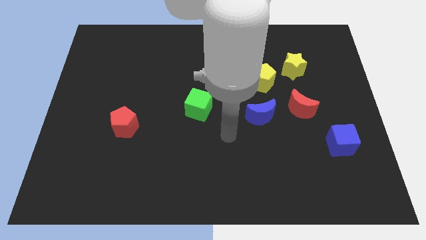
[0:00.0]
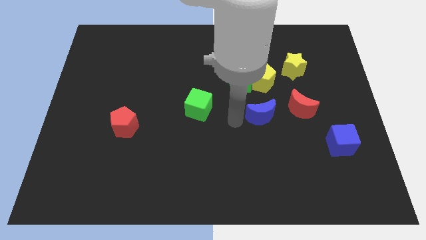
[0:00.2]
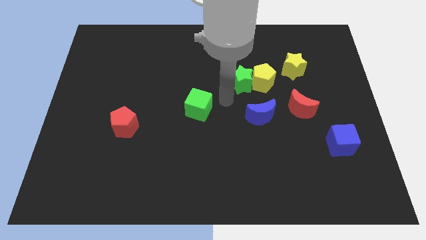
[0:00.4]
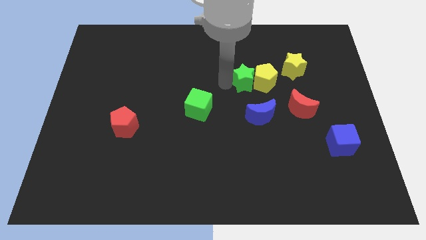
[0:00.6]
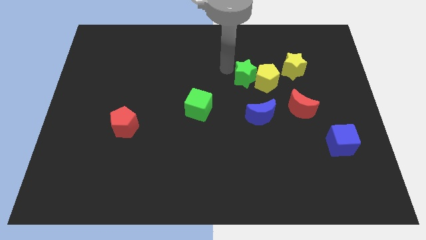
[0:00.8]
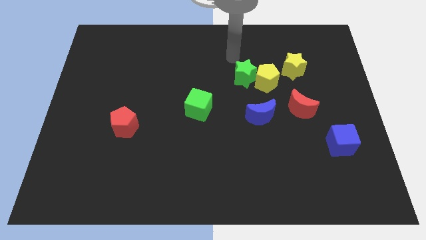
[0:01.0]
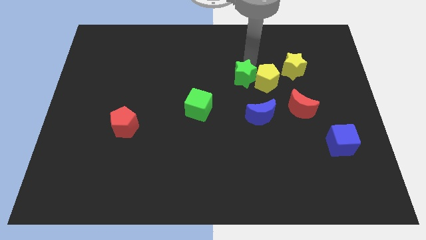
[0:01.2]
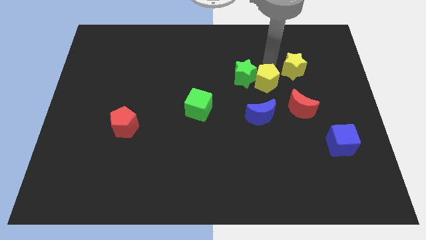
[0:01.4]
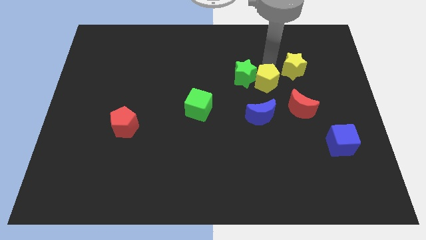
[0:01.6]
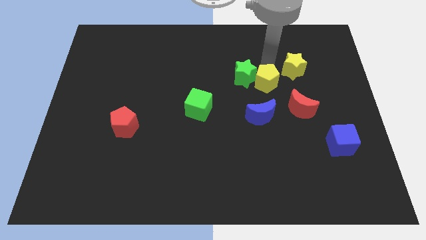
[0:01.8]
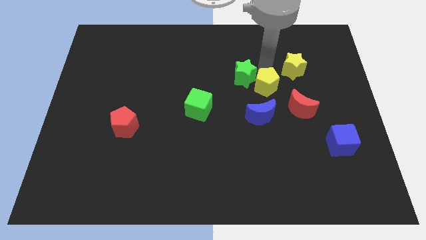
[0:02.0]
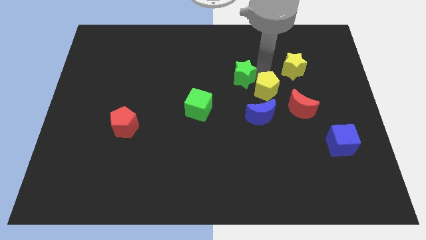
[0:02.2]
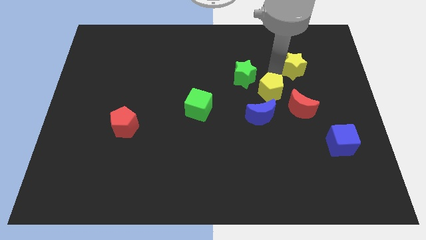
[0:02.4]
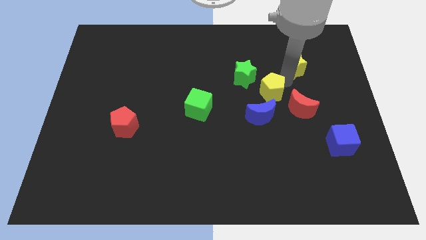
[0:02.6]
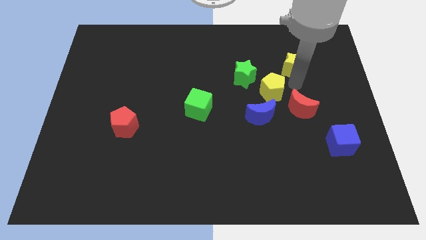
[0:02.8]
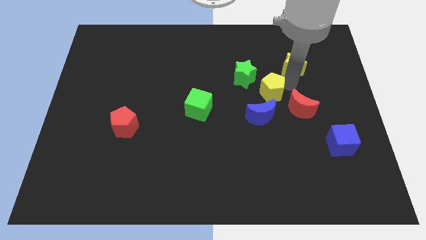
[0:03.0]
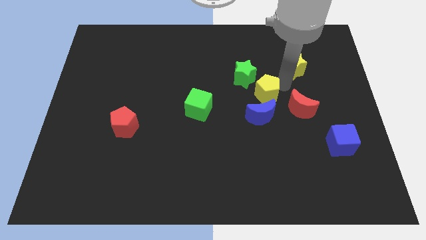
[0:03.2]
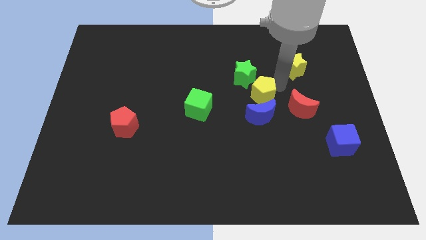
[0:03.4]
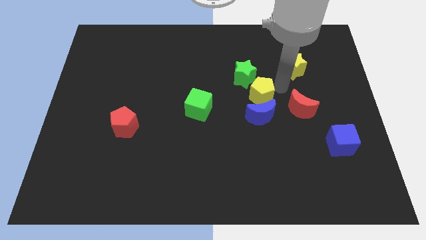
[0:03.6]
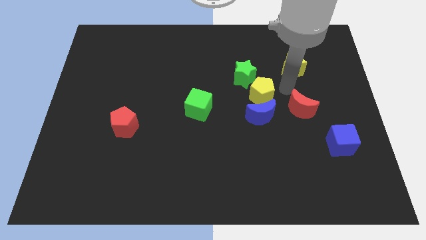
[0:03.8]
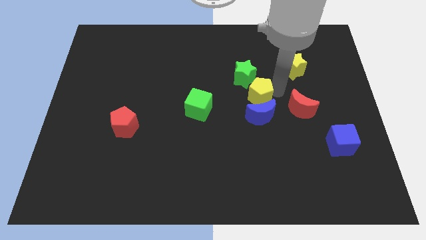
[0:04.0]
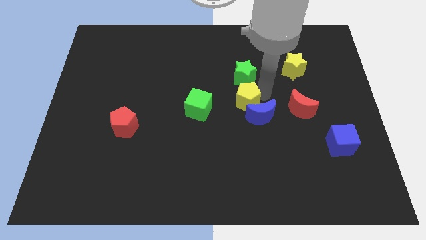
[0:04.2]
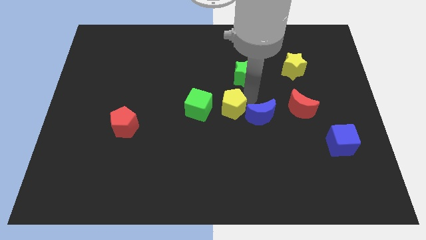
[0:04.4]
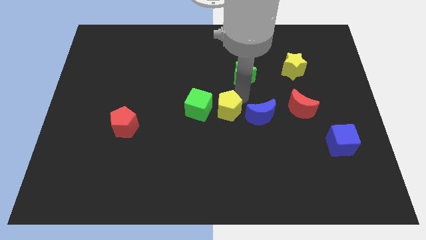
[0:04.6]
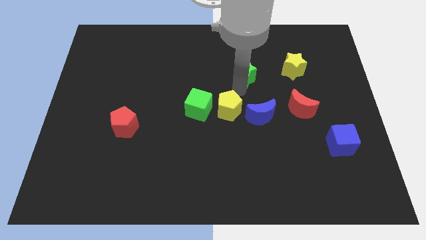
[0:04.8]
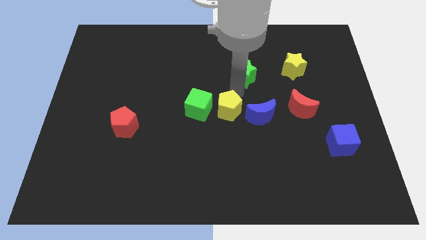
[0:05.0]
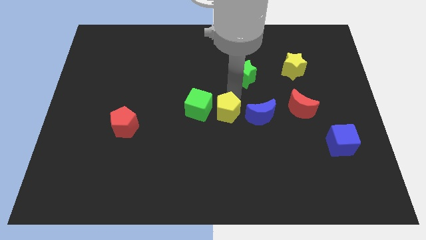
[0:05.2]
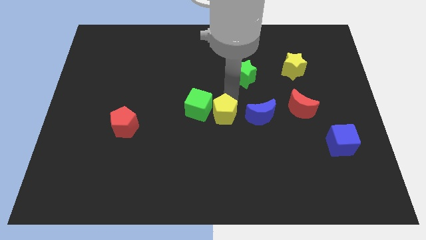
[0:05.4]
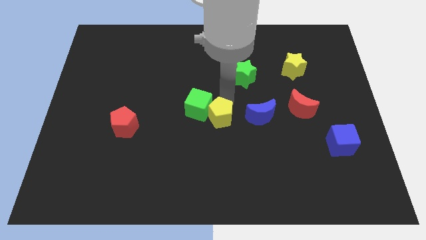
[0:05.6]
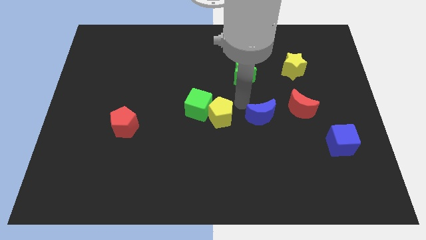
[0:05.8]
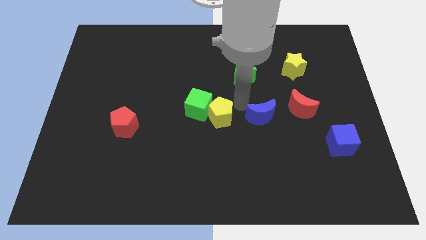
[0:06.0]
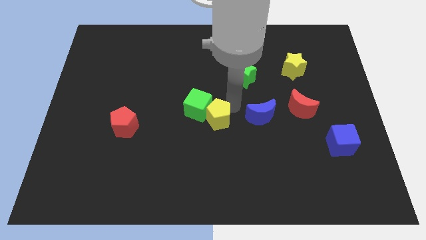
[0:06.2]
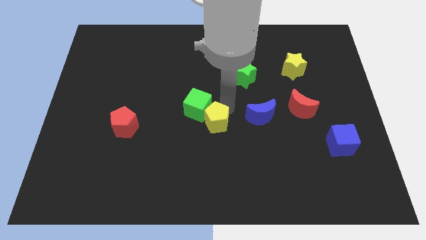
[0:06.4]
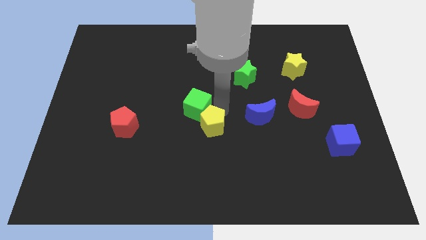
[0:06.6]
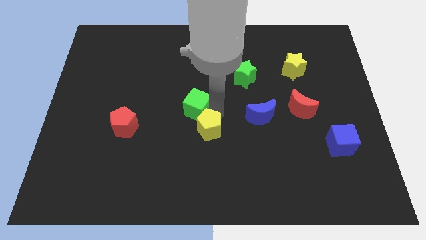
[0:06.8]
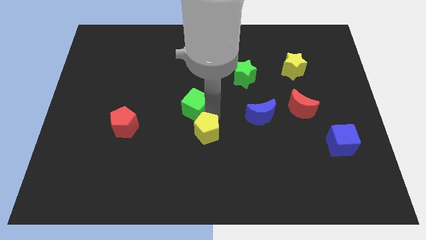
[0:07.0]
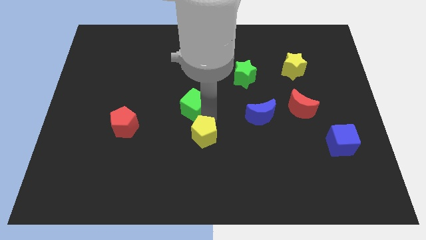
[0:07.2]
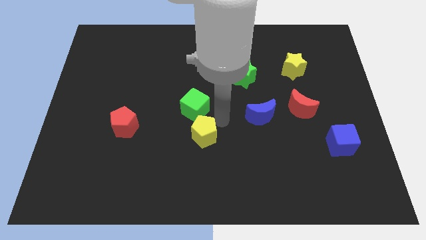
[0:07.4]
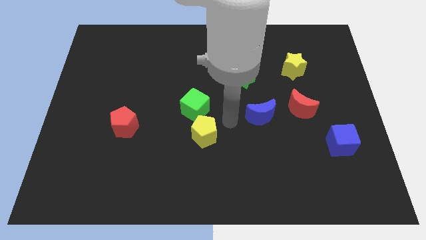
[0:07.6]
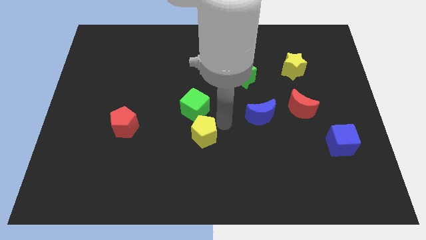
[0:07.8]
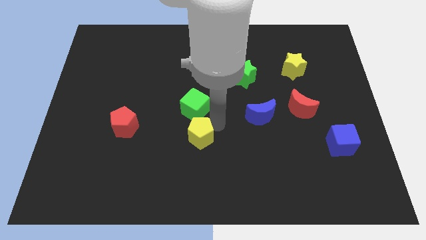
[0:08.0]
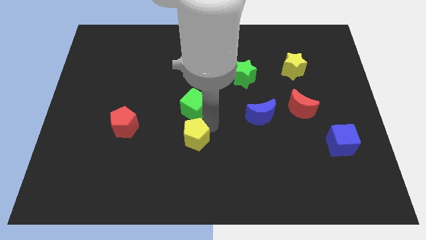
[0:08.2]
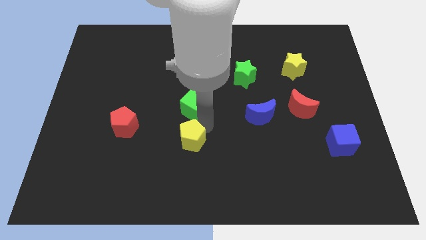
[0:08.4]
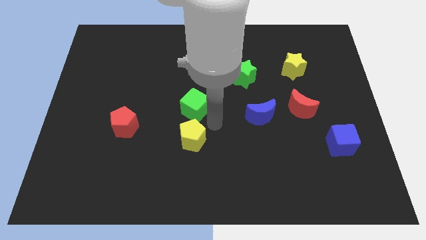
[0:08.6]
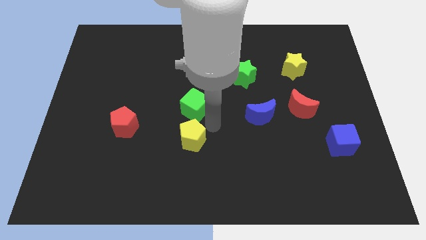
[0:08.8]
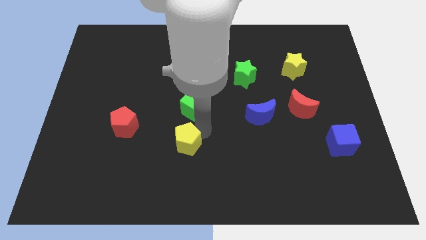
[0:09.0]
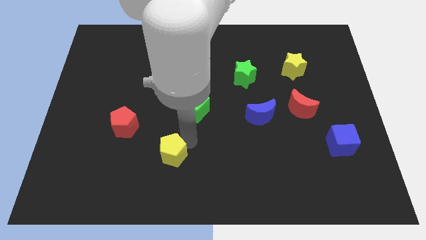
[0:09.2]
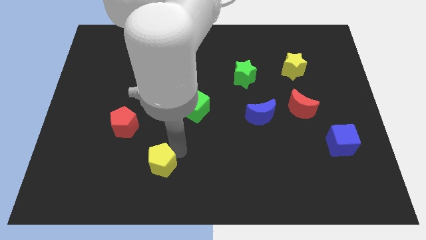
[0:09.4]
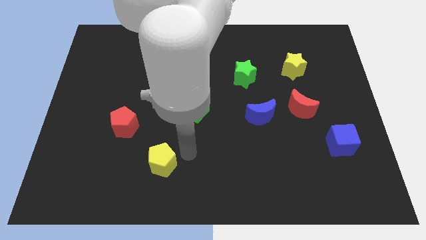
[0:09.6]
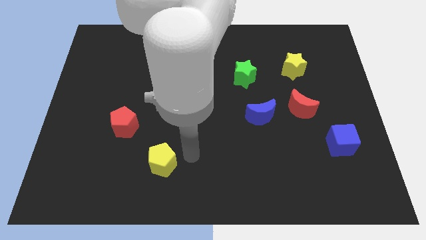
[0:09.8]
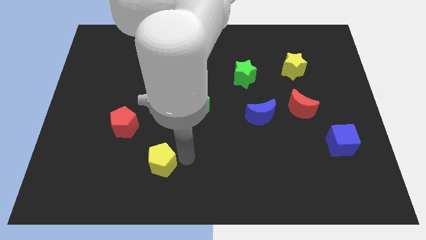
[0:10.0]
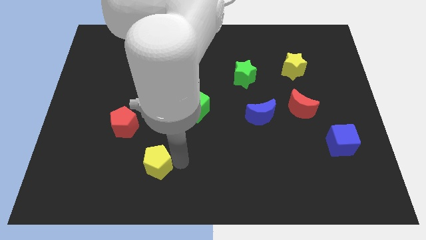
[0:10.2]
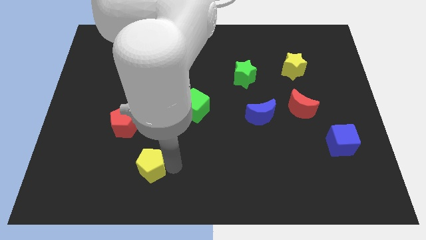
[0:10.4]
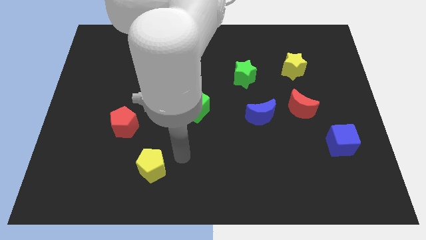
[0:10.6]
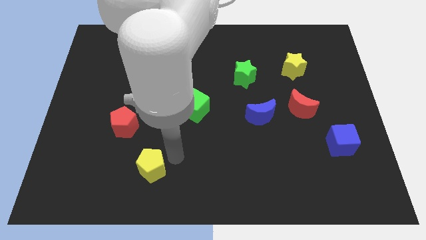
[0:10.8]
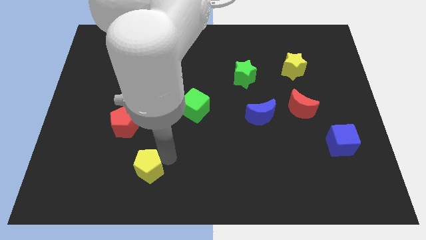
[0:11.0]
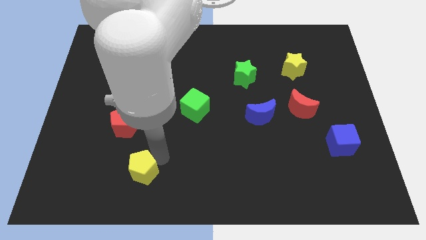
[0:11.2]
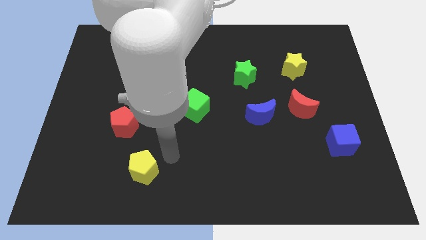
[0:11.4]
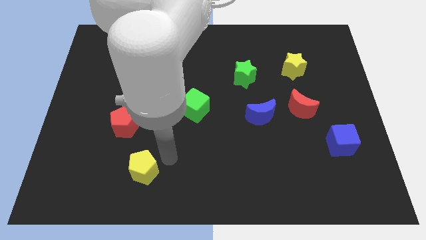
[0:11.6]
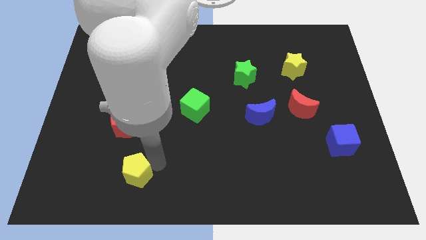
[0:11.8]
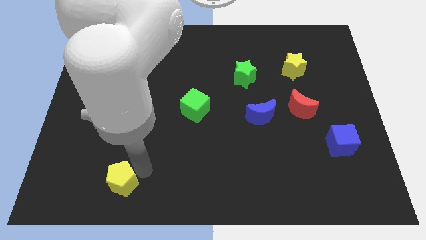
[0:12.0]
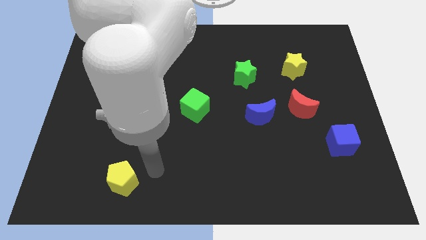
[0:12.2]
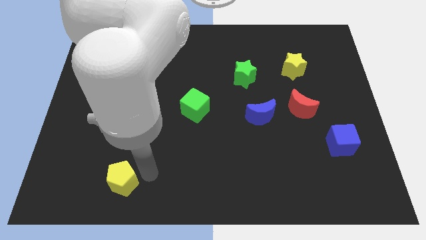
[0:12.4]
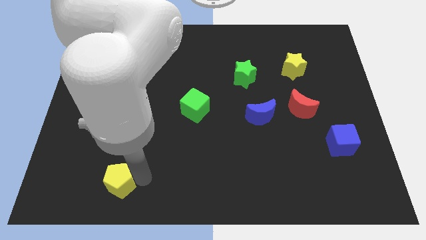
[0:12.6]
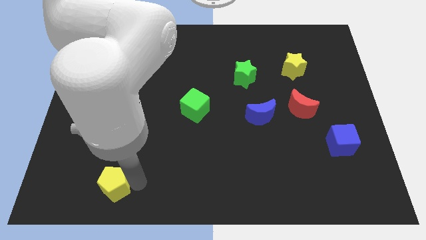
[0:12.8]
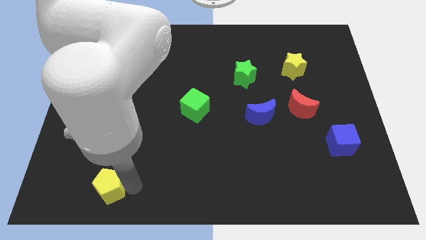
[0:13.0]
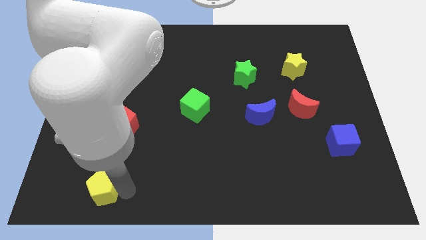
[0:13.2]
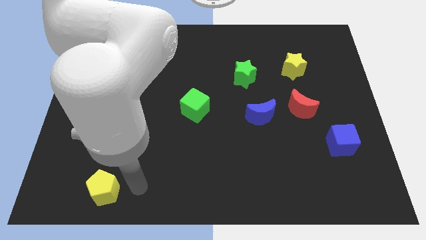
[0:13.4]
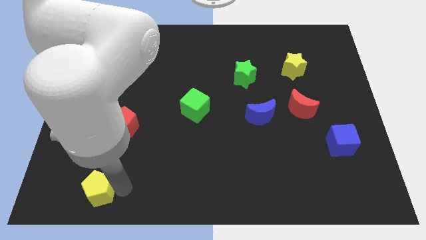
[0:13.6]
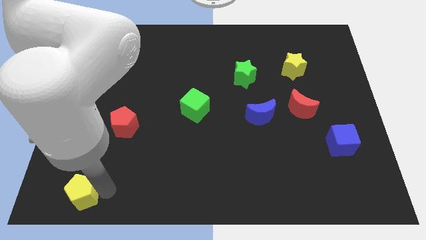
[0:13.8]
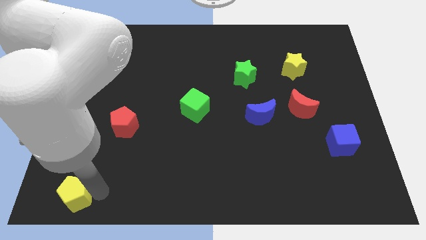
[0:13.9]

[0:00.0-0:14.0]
slide the yellow pentagon to the bottom left of the board
